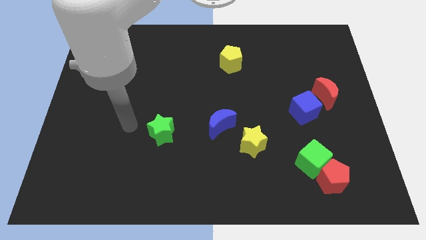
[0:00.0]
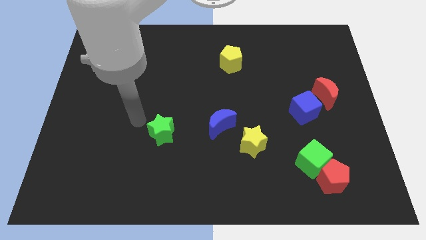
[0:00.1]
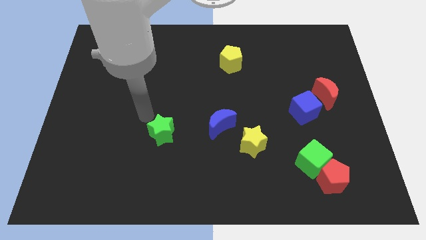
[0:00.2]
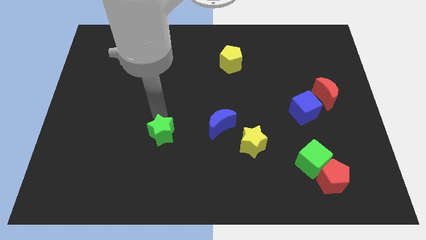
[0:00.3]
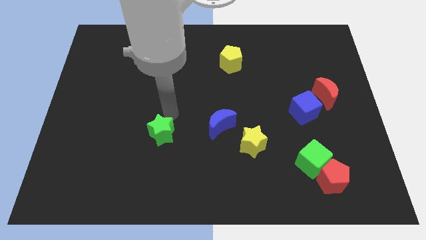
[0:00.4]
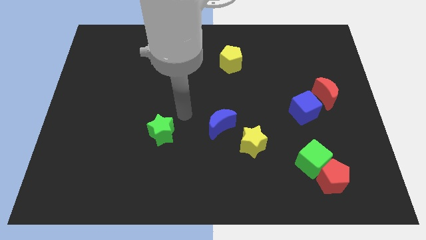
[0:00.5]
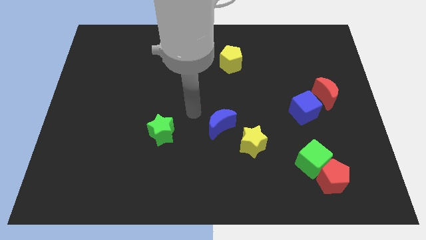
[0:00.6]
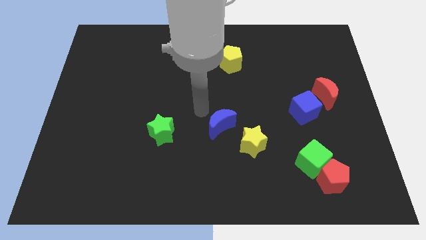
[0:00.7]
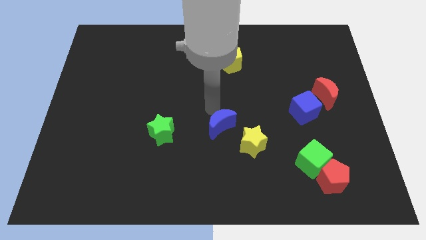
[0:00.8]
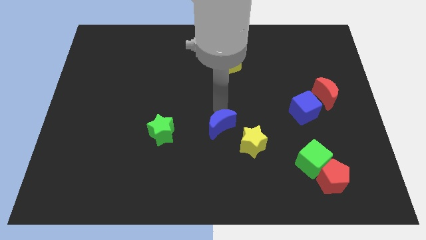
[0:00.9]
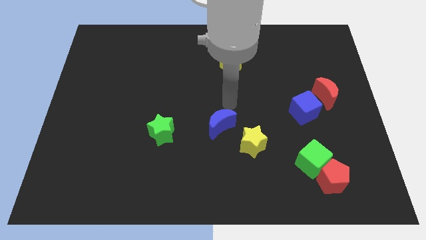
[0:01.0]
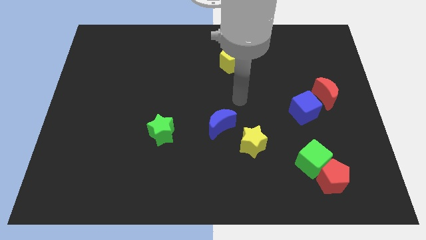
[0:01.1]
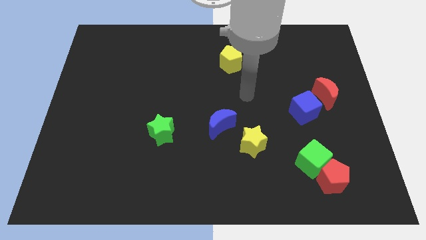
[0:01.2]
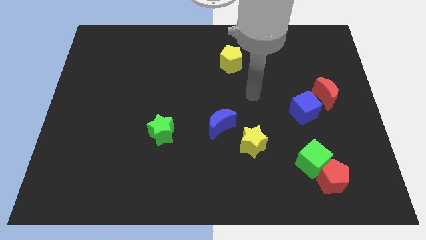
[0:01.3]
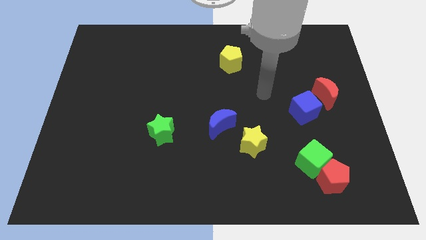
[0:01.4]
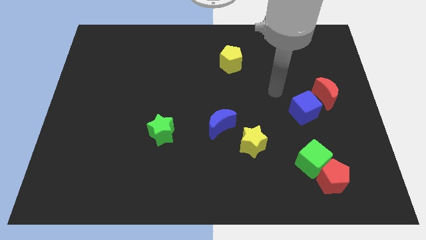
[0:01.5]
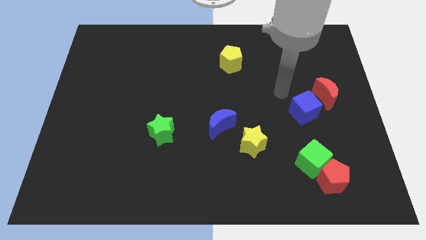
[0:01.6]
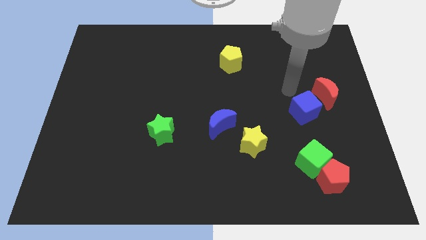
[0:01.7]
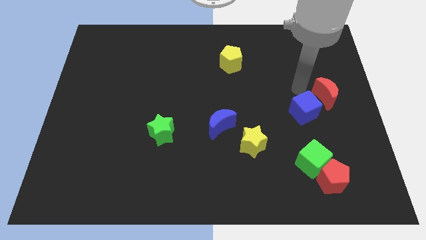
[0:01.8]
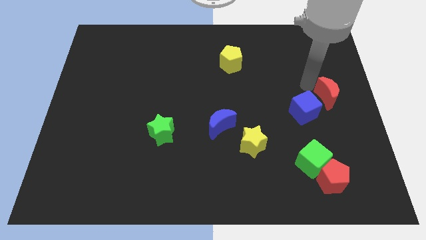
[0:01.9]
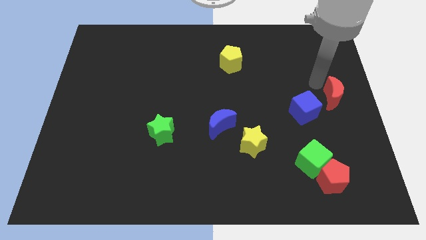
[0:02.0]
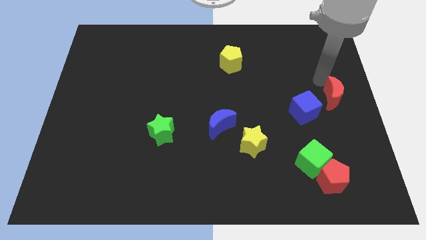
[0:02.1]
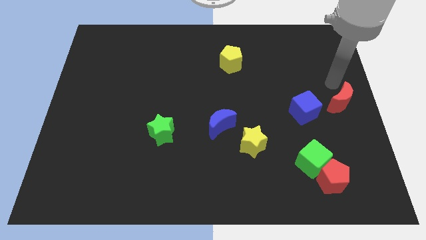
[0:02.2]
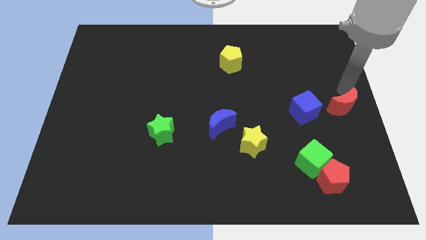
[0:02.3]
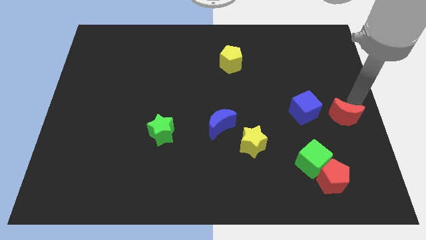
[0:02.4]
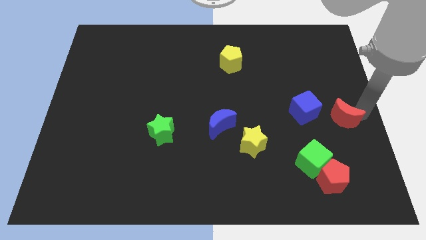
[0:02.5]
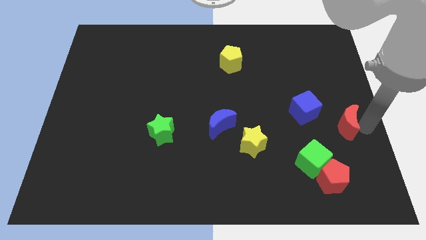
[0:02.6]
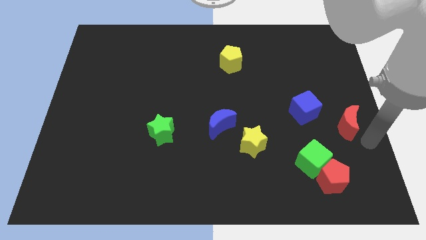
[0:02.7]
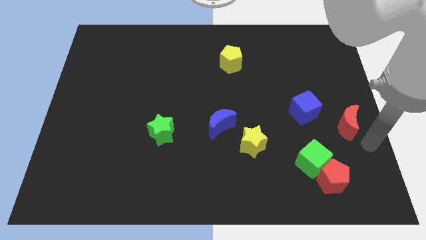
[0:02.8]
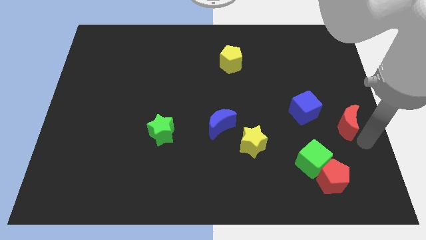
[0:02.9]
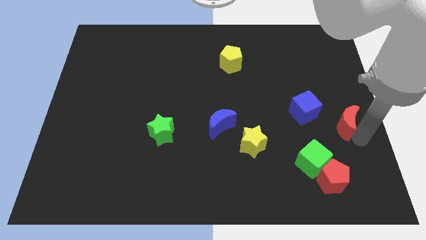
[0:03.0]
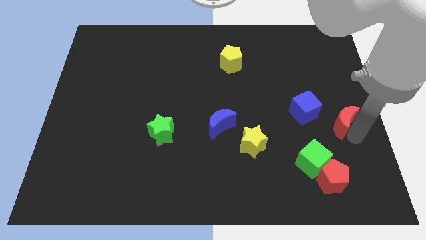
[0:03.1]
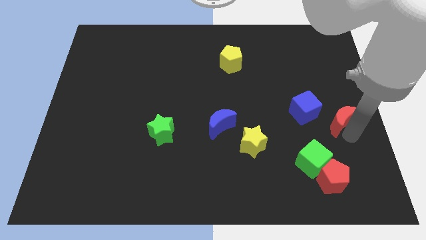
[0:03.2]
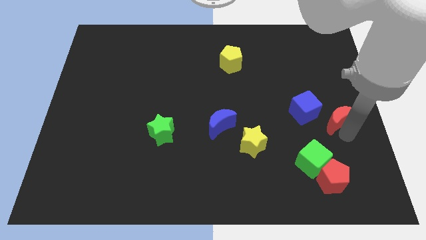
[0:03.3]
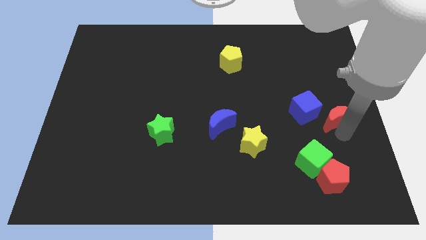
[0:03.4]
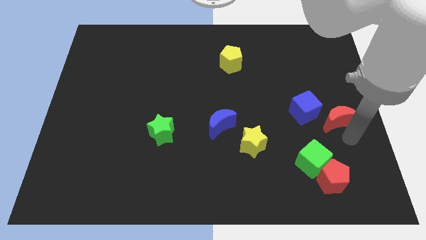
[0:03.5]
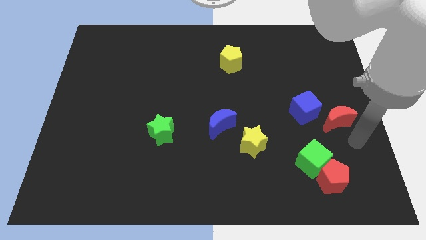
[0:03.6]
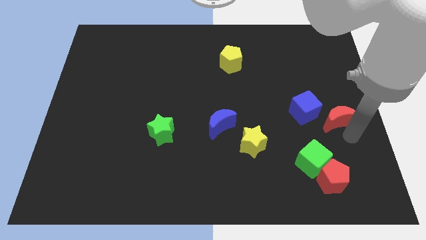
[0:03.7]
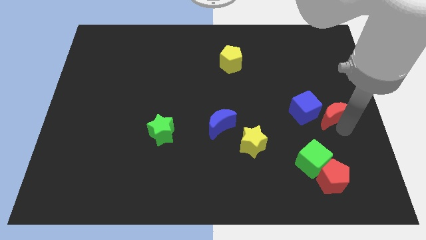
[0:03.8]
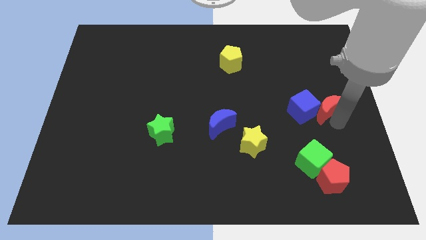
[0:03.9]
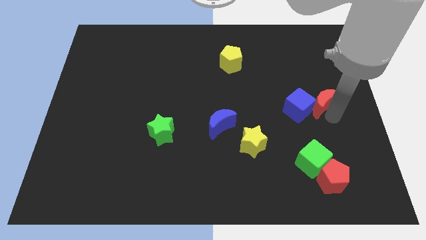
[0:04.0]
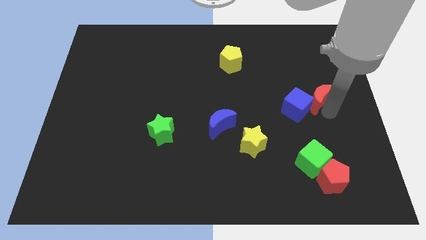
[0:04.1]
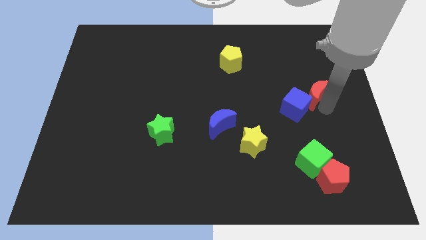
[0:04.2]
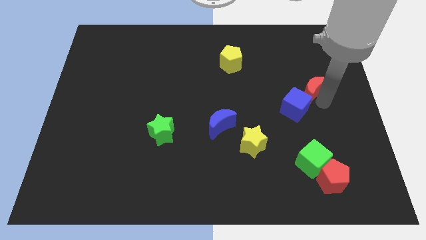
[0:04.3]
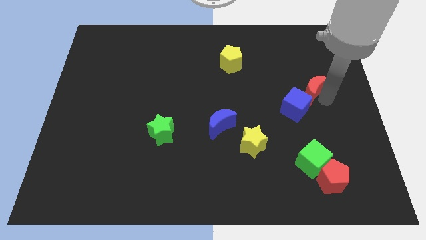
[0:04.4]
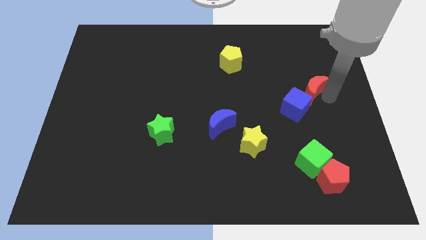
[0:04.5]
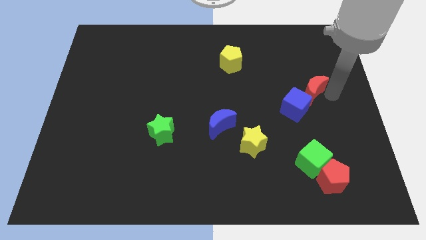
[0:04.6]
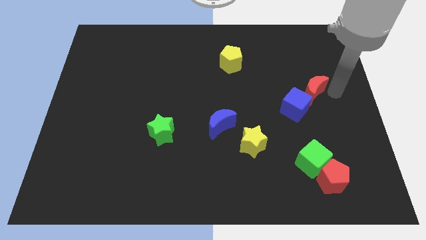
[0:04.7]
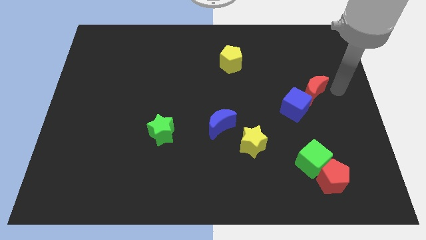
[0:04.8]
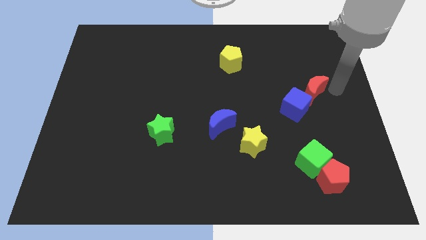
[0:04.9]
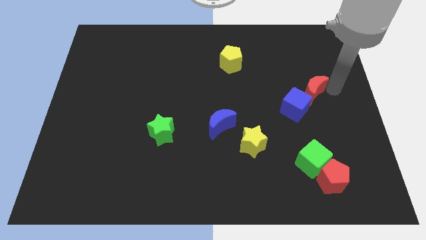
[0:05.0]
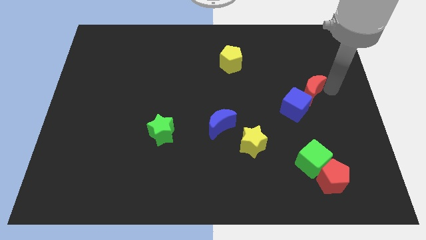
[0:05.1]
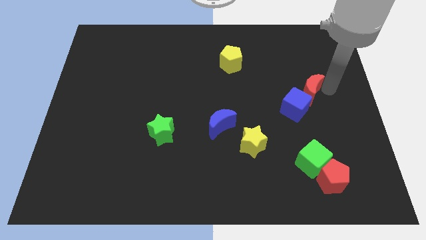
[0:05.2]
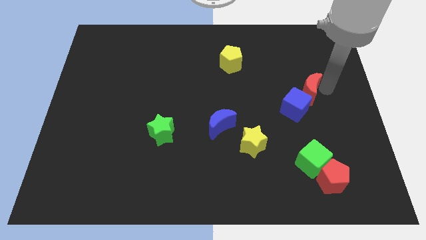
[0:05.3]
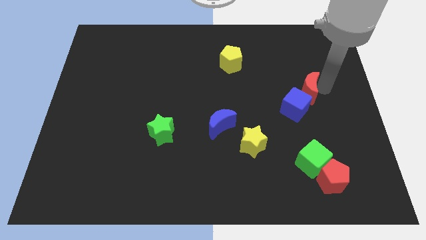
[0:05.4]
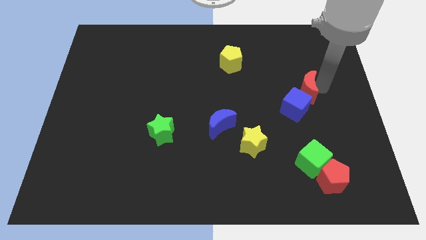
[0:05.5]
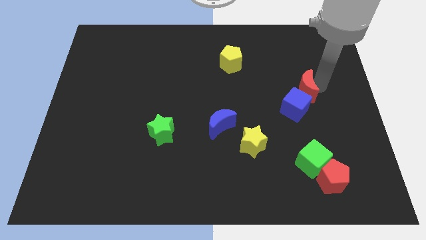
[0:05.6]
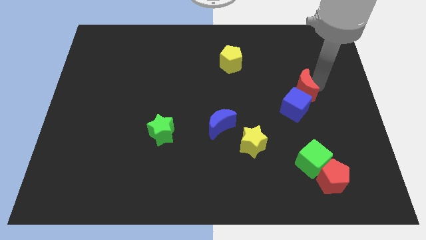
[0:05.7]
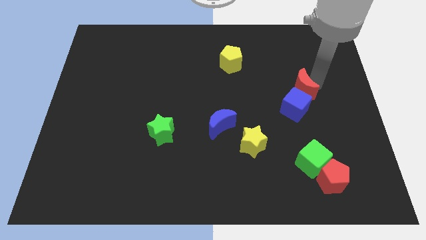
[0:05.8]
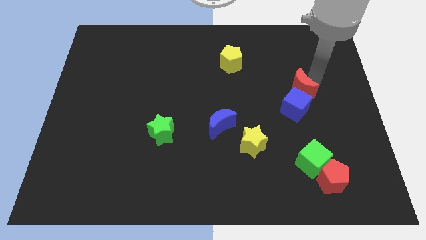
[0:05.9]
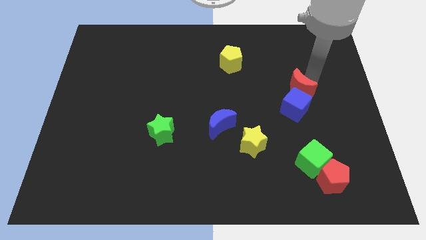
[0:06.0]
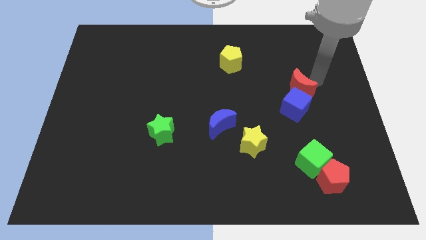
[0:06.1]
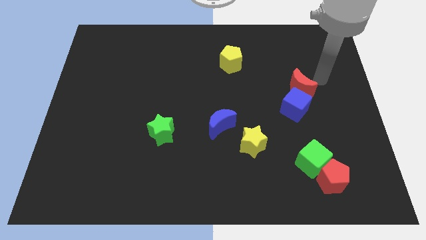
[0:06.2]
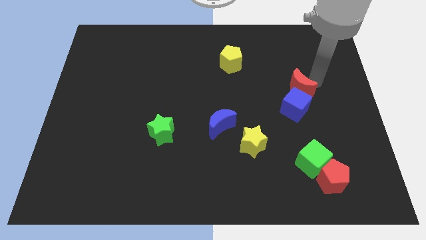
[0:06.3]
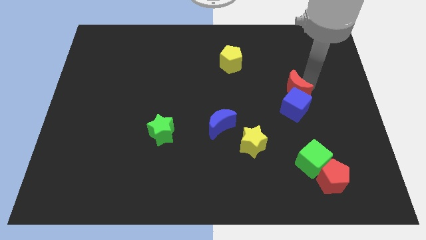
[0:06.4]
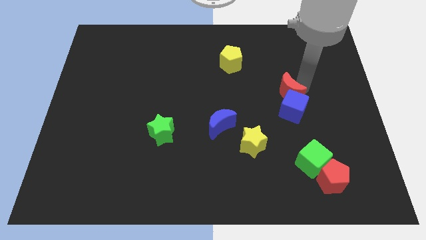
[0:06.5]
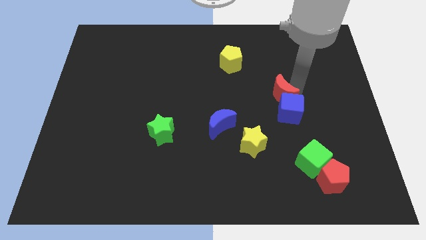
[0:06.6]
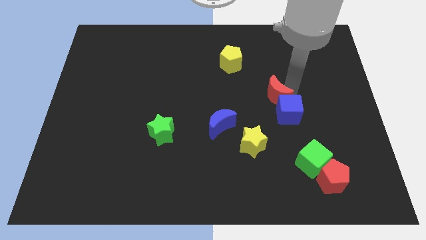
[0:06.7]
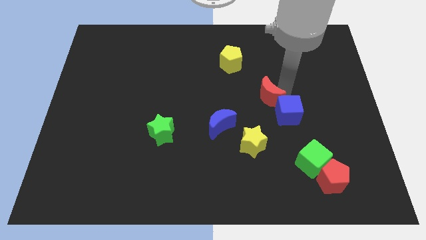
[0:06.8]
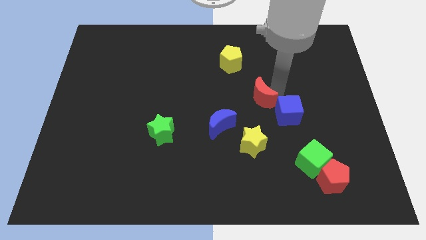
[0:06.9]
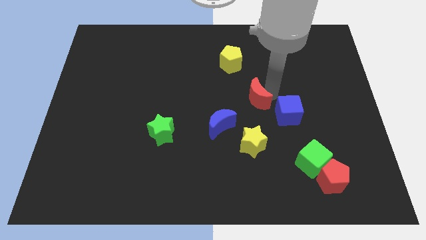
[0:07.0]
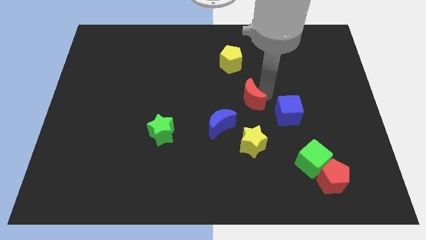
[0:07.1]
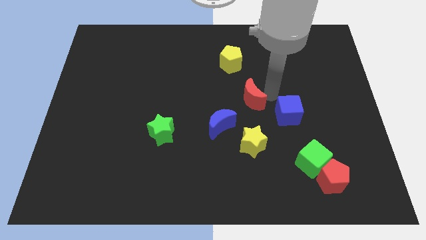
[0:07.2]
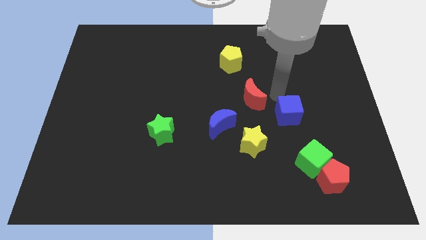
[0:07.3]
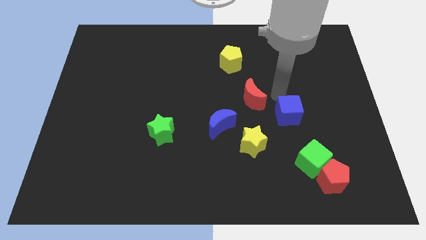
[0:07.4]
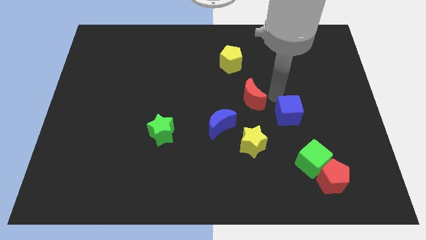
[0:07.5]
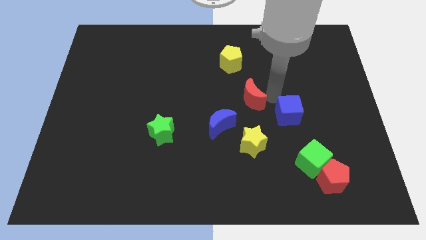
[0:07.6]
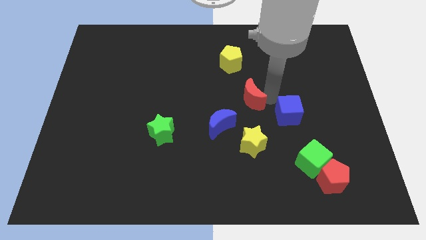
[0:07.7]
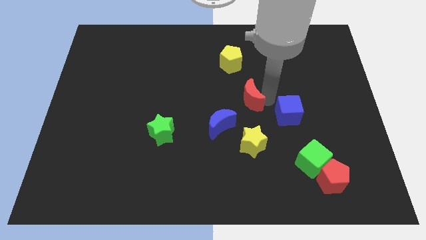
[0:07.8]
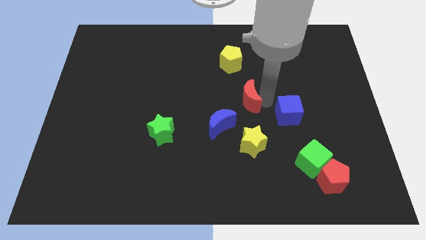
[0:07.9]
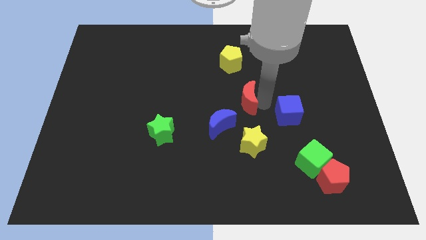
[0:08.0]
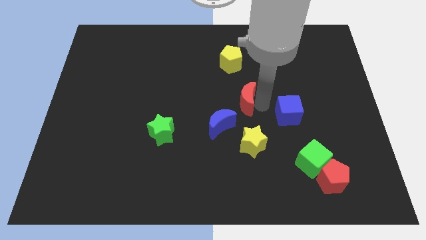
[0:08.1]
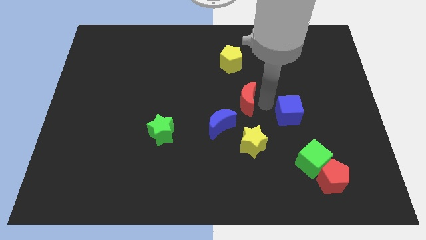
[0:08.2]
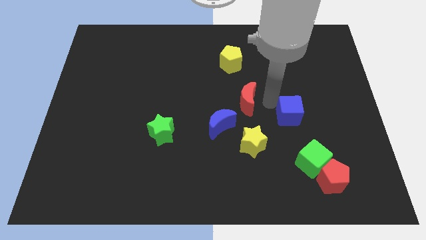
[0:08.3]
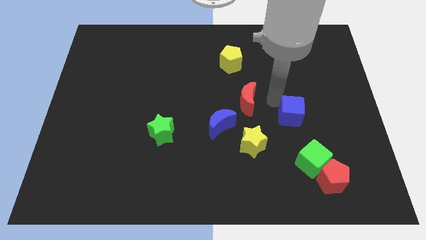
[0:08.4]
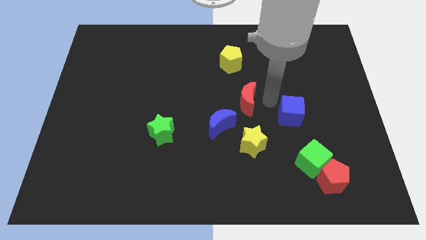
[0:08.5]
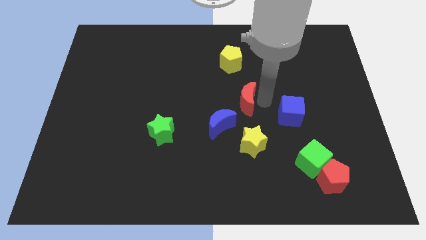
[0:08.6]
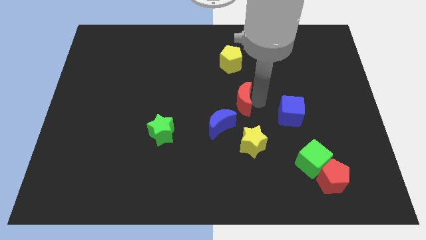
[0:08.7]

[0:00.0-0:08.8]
move the red moon to the left
